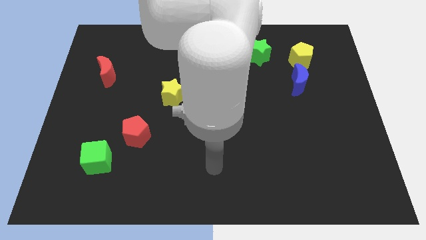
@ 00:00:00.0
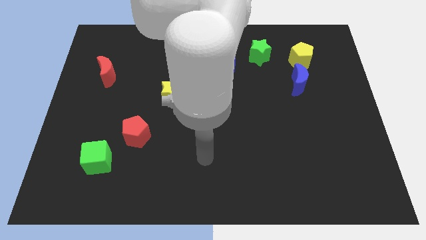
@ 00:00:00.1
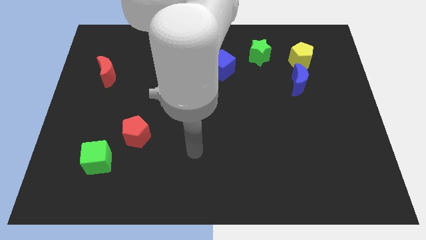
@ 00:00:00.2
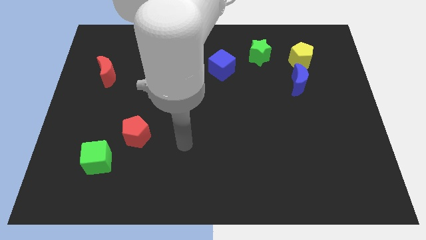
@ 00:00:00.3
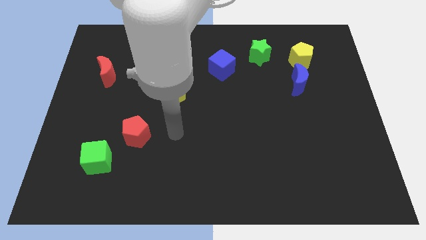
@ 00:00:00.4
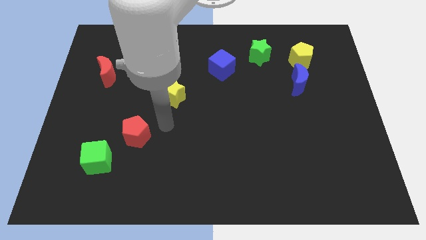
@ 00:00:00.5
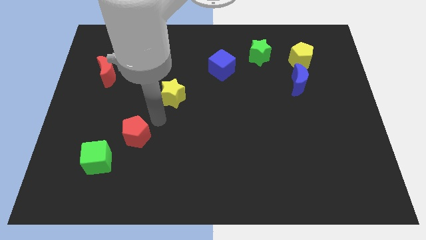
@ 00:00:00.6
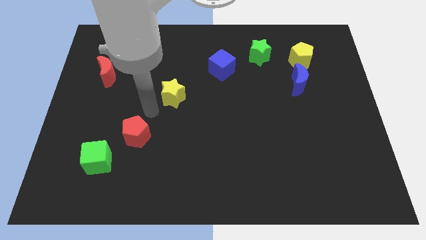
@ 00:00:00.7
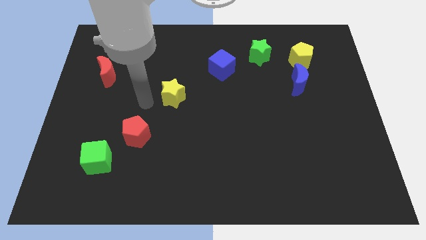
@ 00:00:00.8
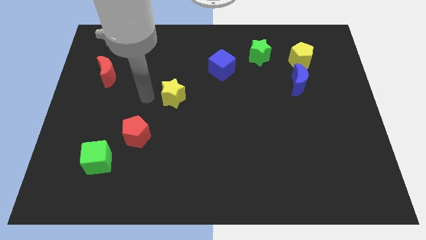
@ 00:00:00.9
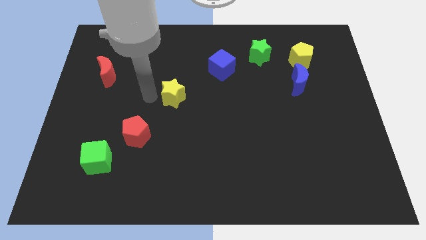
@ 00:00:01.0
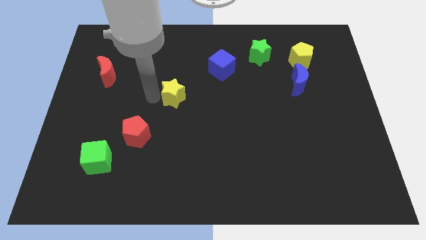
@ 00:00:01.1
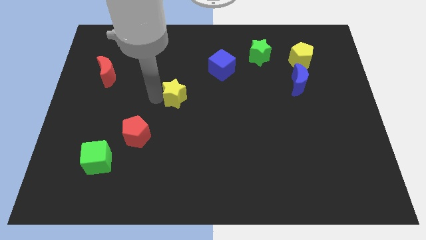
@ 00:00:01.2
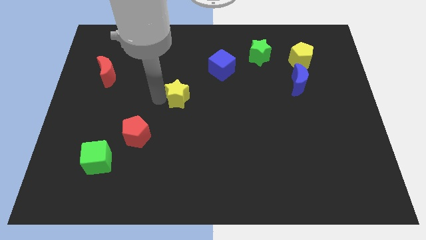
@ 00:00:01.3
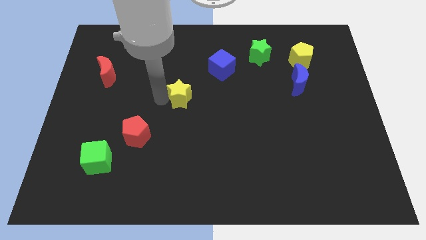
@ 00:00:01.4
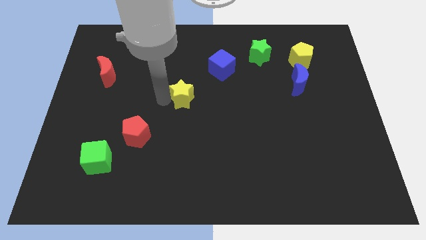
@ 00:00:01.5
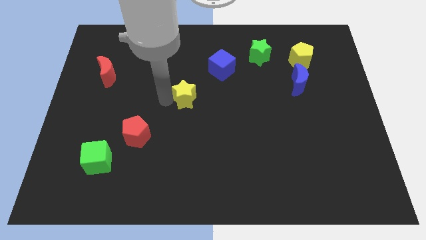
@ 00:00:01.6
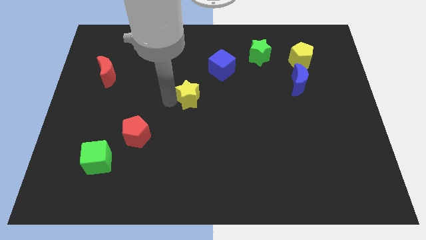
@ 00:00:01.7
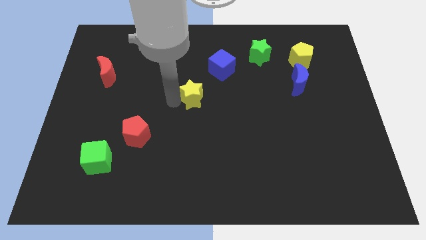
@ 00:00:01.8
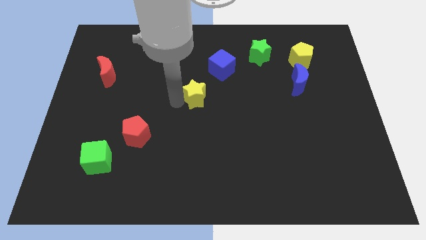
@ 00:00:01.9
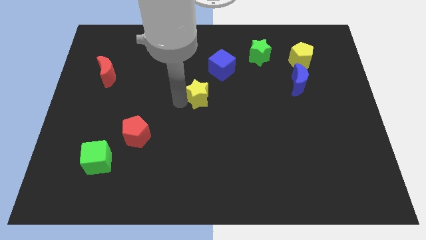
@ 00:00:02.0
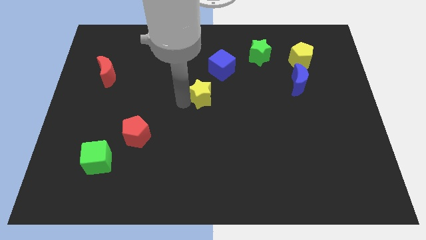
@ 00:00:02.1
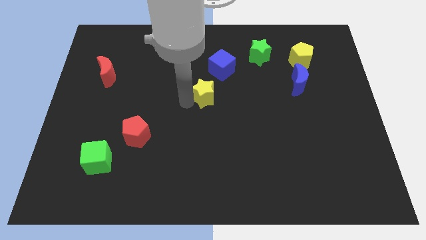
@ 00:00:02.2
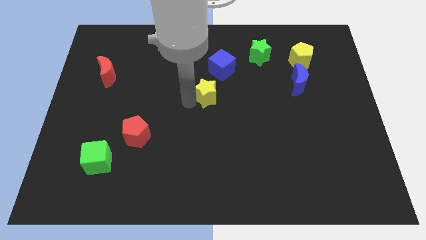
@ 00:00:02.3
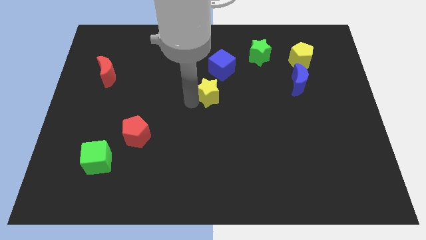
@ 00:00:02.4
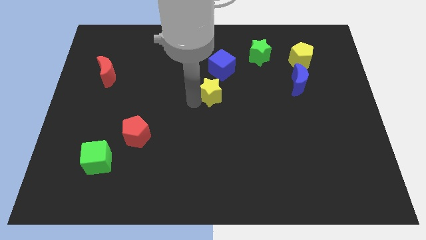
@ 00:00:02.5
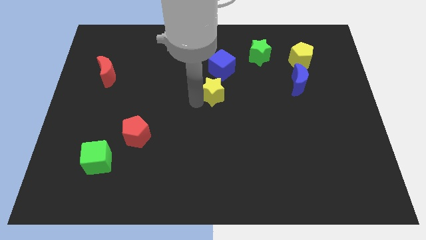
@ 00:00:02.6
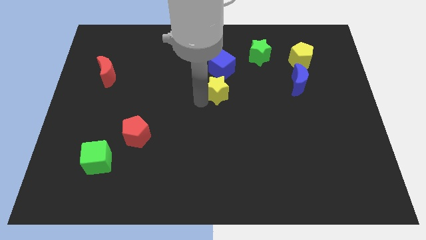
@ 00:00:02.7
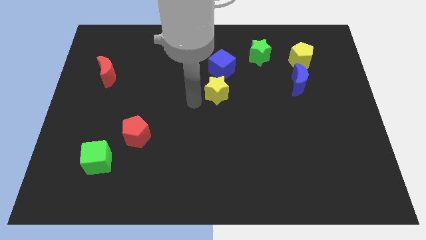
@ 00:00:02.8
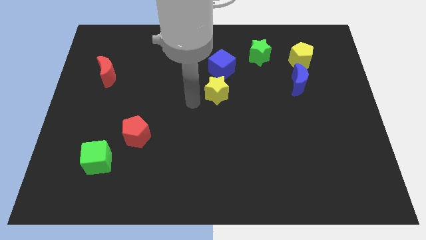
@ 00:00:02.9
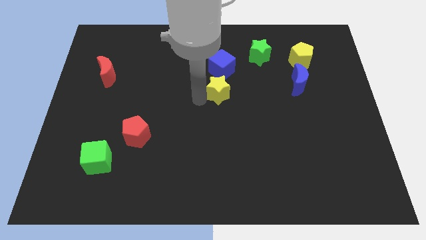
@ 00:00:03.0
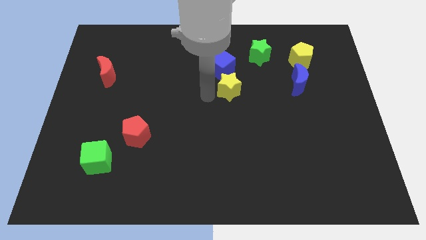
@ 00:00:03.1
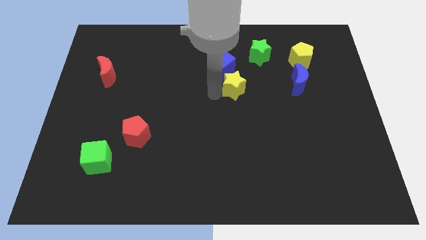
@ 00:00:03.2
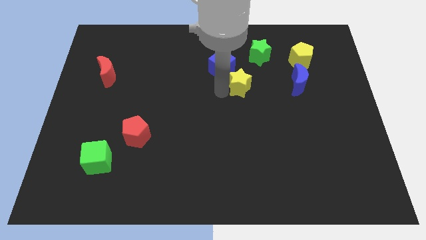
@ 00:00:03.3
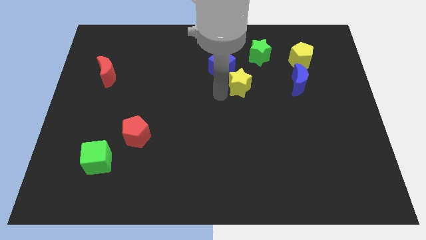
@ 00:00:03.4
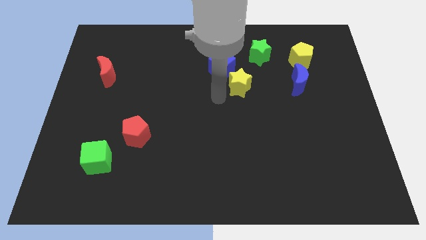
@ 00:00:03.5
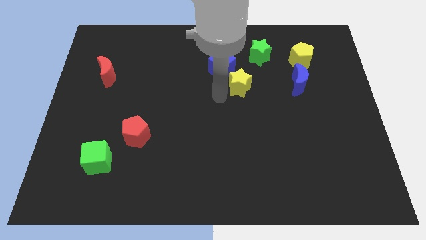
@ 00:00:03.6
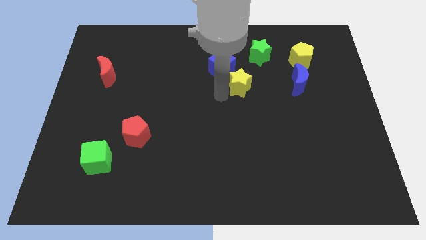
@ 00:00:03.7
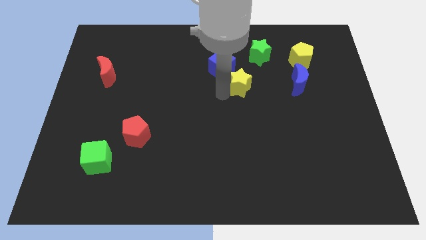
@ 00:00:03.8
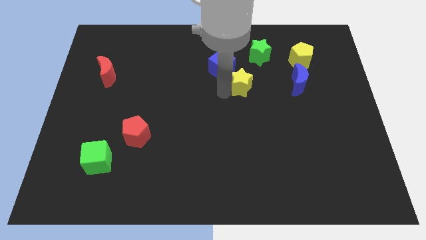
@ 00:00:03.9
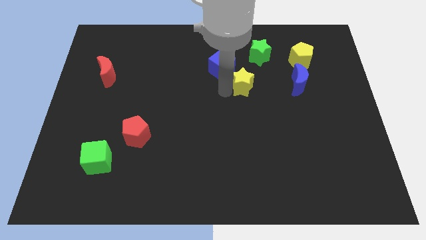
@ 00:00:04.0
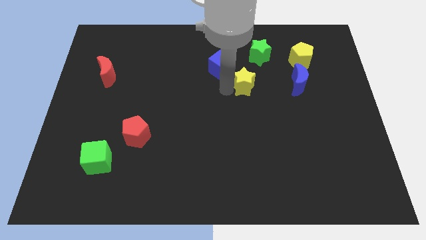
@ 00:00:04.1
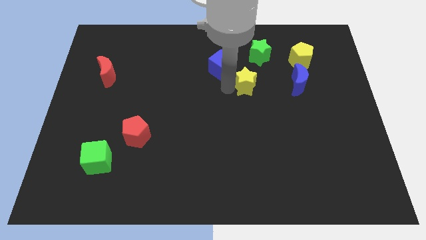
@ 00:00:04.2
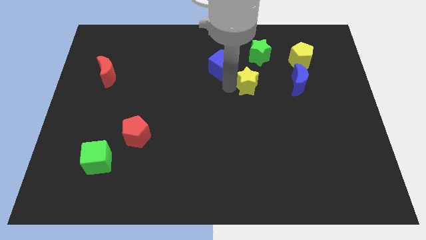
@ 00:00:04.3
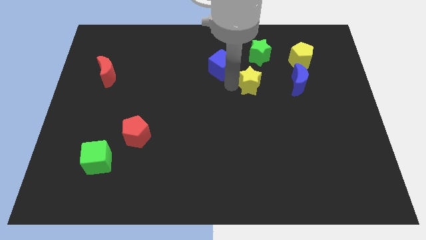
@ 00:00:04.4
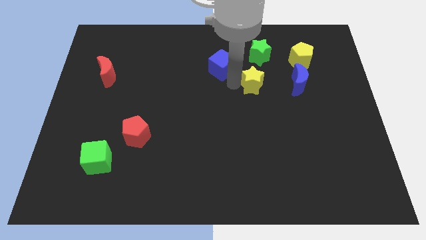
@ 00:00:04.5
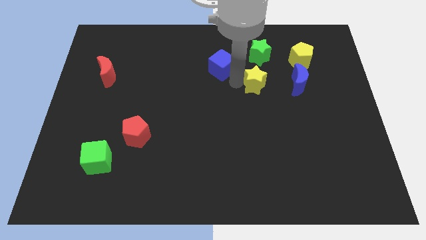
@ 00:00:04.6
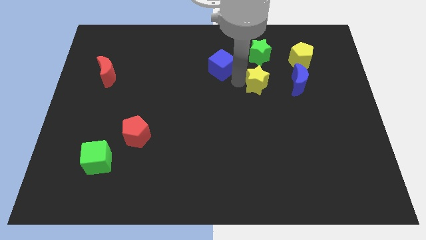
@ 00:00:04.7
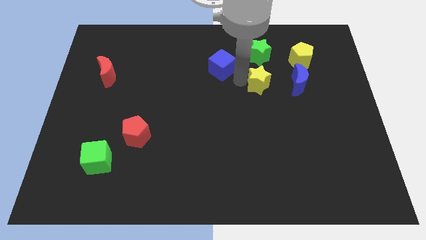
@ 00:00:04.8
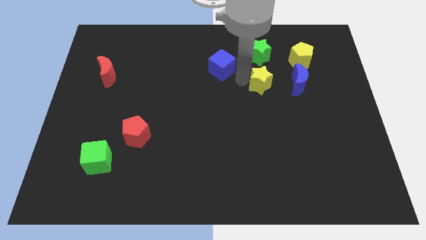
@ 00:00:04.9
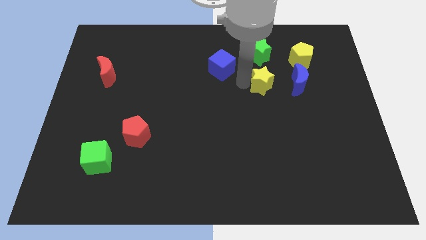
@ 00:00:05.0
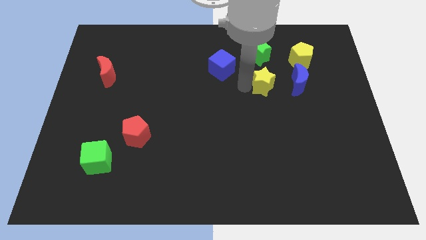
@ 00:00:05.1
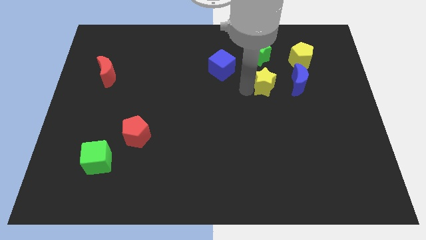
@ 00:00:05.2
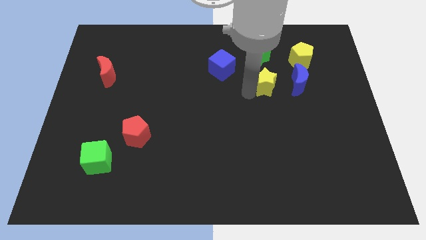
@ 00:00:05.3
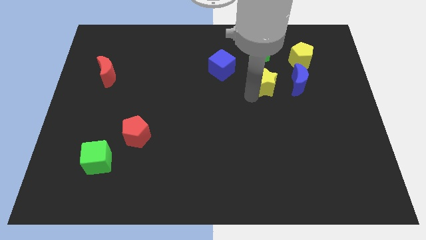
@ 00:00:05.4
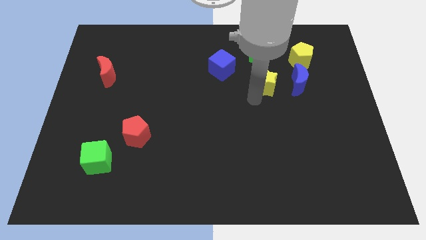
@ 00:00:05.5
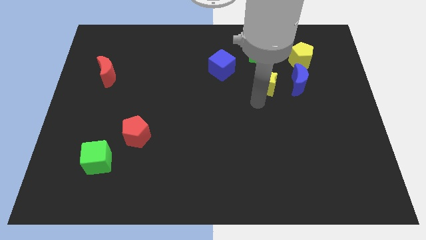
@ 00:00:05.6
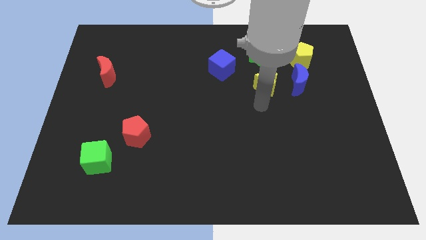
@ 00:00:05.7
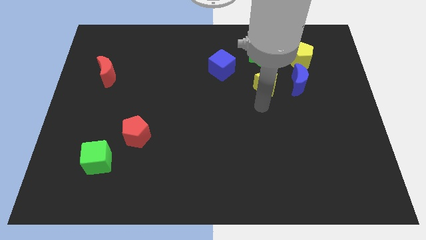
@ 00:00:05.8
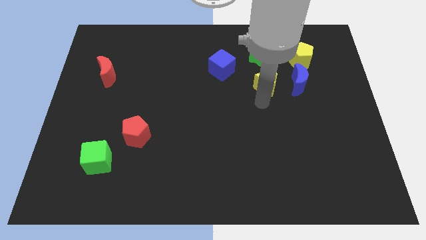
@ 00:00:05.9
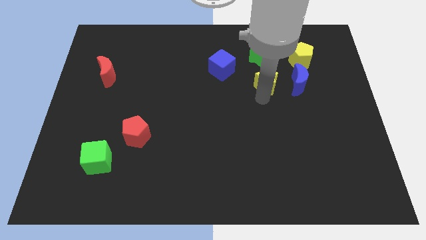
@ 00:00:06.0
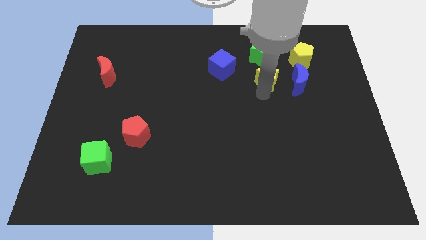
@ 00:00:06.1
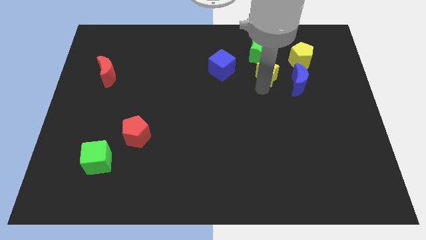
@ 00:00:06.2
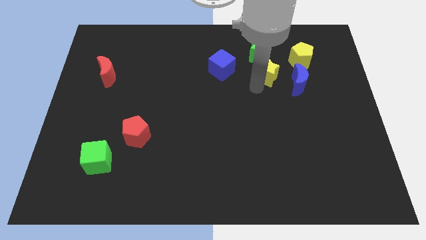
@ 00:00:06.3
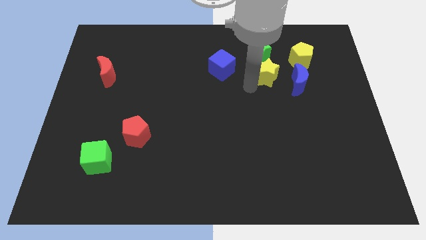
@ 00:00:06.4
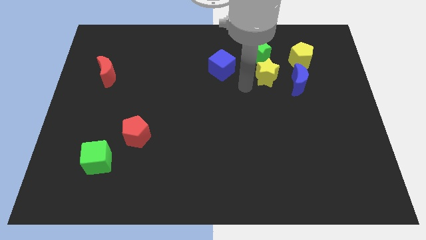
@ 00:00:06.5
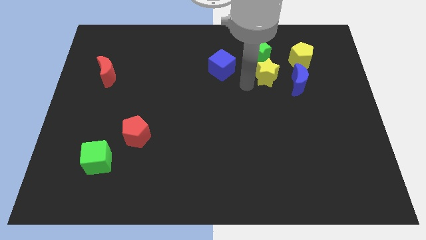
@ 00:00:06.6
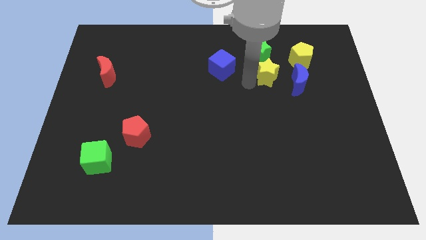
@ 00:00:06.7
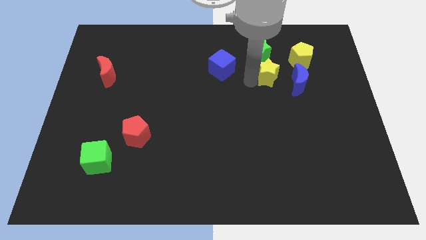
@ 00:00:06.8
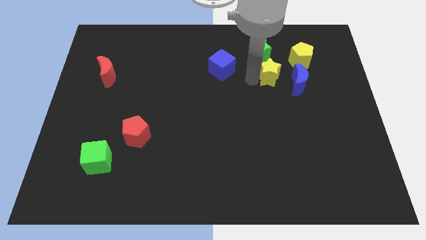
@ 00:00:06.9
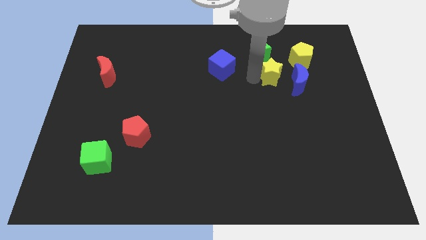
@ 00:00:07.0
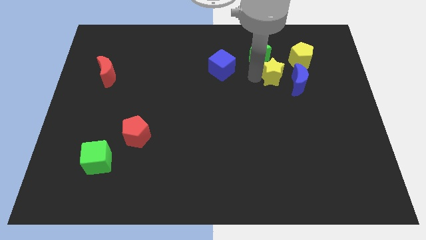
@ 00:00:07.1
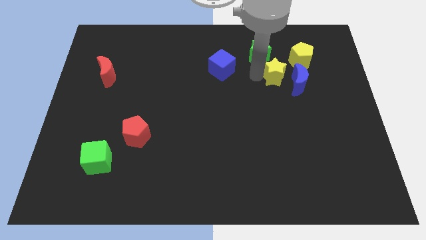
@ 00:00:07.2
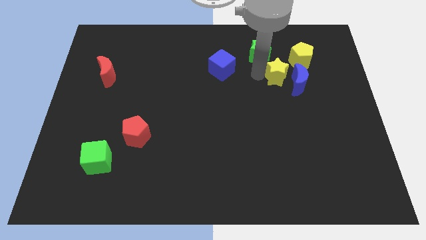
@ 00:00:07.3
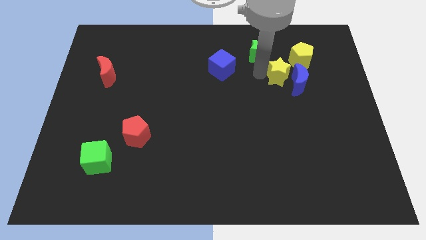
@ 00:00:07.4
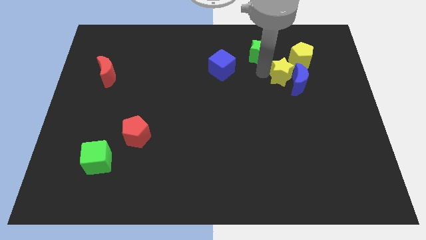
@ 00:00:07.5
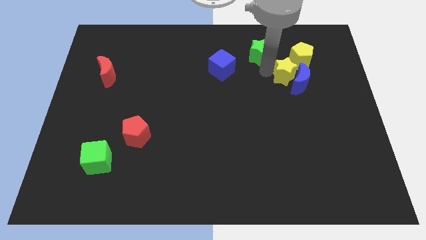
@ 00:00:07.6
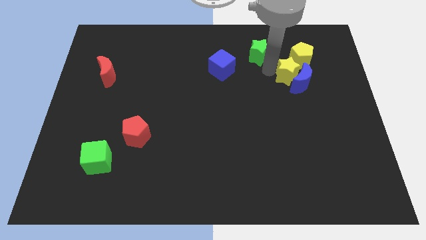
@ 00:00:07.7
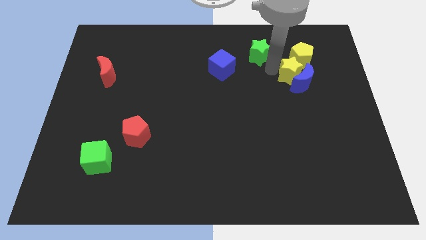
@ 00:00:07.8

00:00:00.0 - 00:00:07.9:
move the yellow star next to the yellow pentagon
